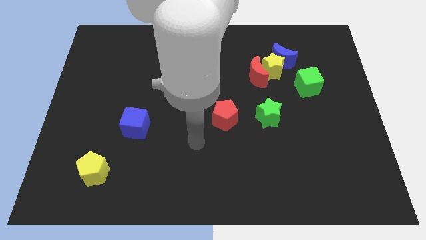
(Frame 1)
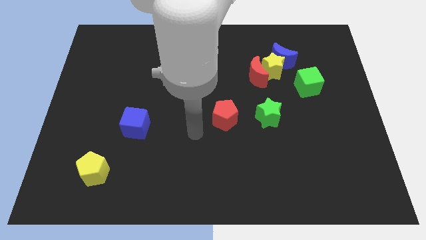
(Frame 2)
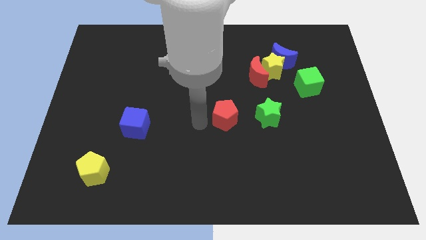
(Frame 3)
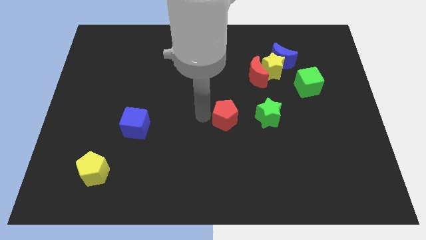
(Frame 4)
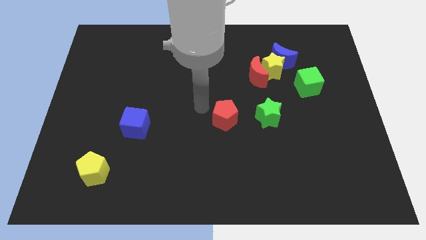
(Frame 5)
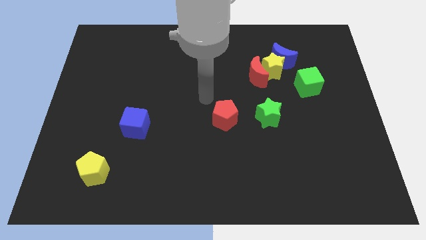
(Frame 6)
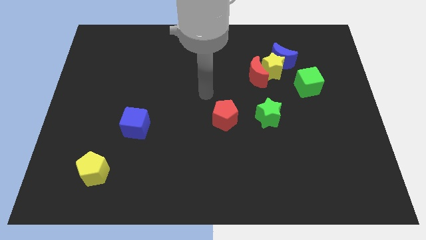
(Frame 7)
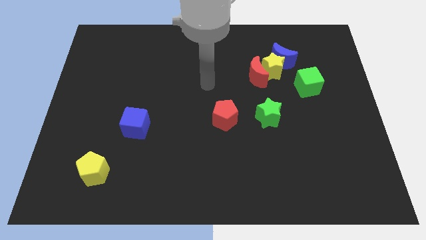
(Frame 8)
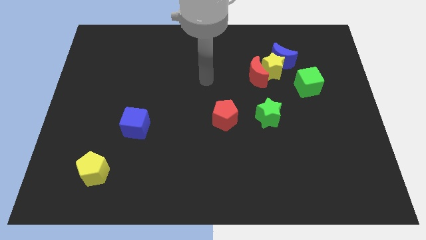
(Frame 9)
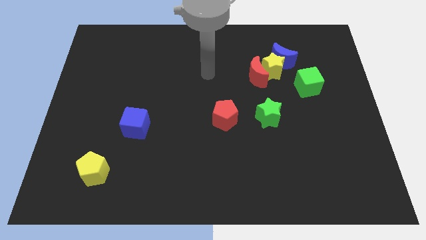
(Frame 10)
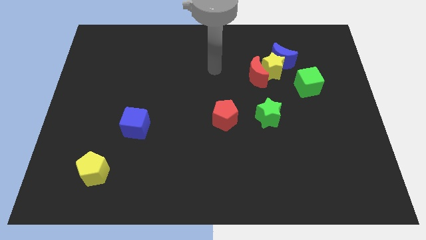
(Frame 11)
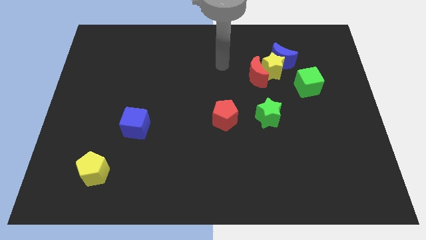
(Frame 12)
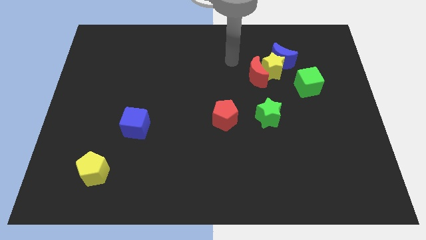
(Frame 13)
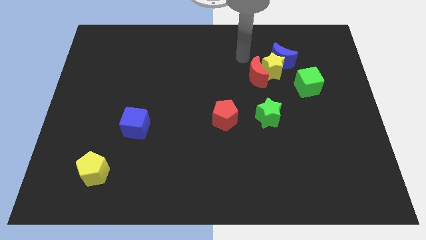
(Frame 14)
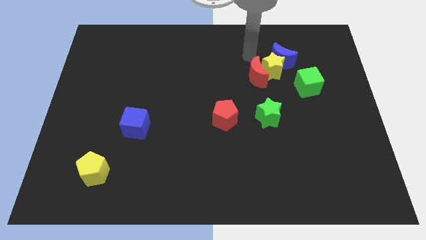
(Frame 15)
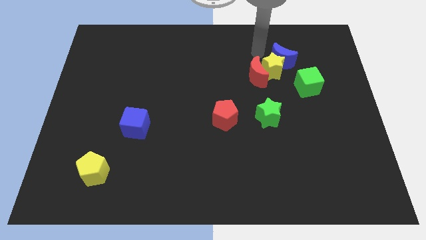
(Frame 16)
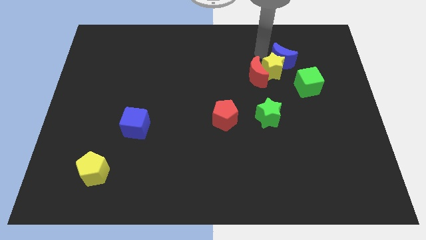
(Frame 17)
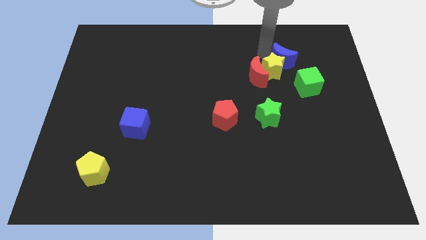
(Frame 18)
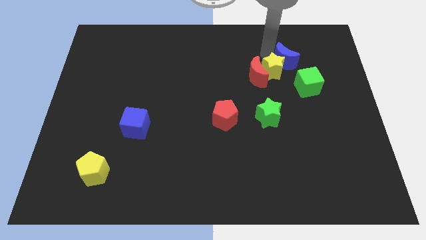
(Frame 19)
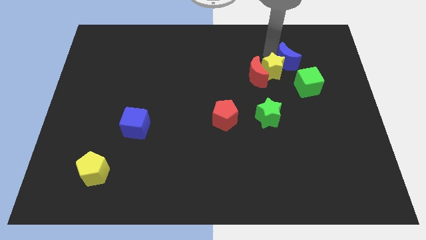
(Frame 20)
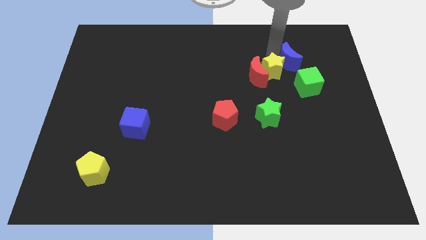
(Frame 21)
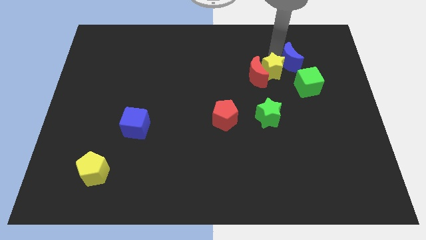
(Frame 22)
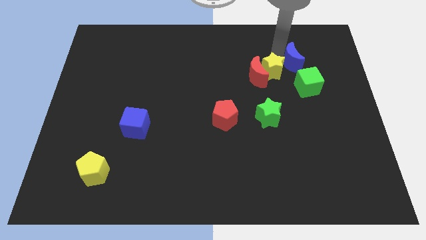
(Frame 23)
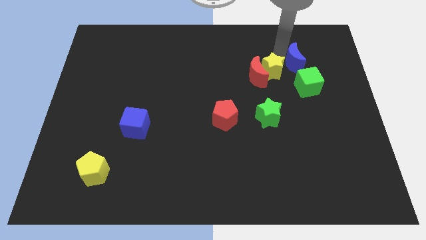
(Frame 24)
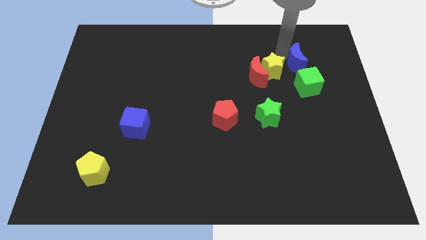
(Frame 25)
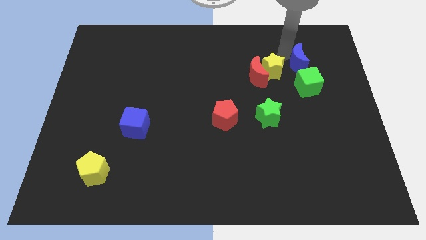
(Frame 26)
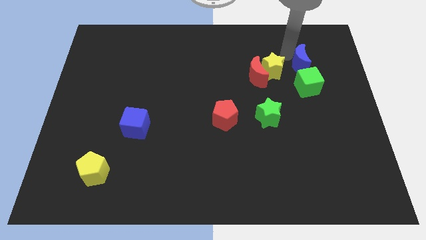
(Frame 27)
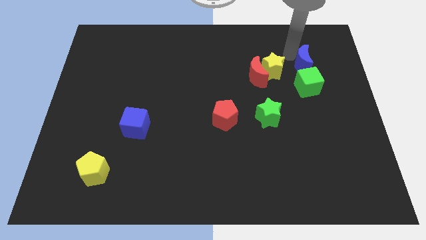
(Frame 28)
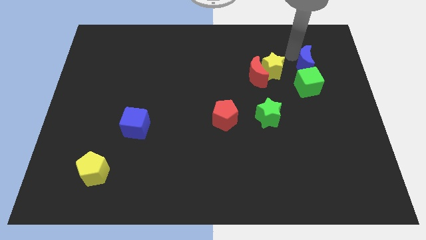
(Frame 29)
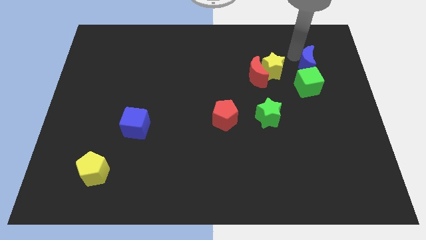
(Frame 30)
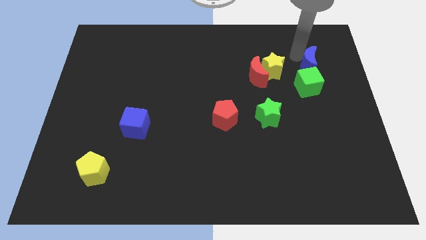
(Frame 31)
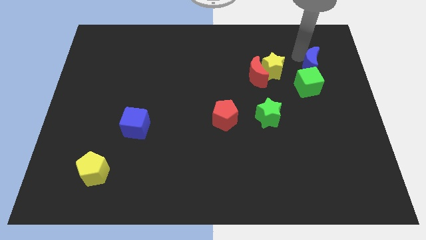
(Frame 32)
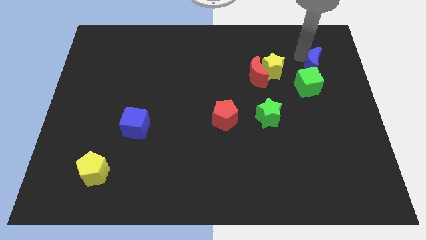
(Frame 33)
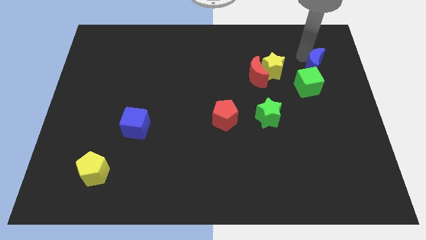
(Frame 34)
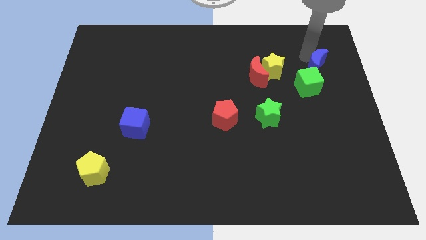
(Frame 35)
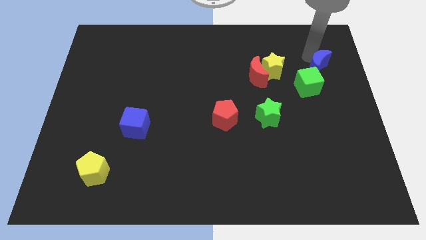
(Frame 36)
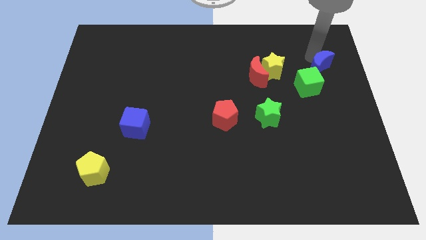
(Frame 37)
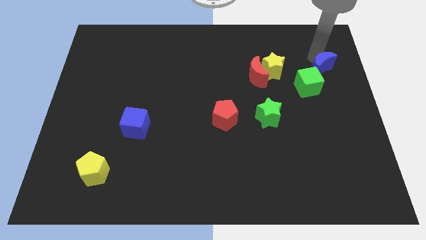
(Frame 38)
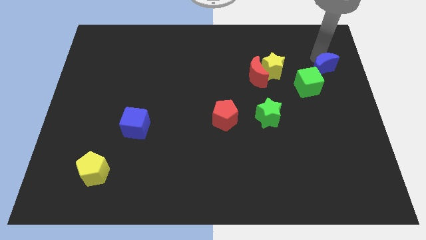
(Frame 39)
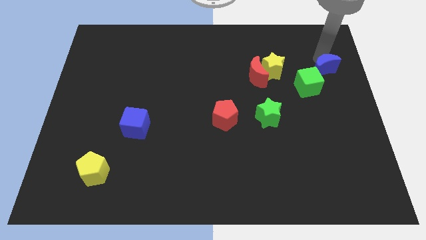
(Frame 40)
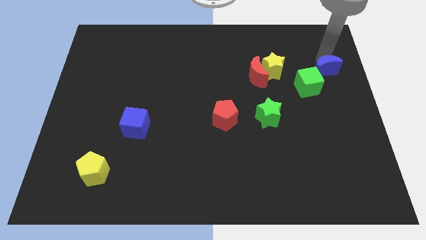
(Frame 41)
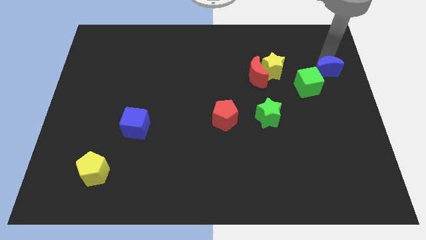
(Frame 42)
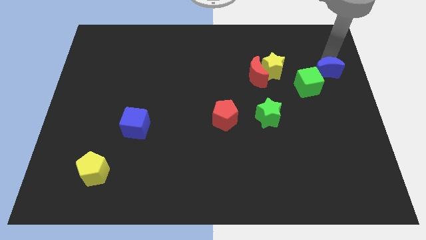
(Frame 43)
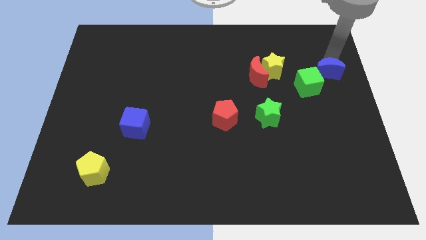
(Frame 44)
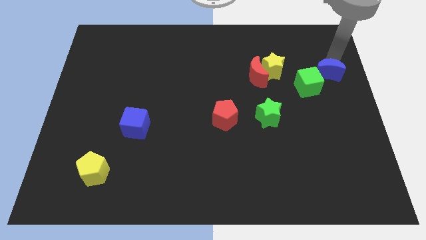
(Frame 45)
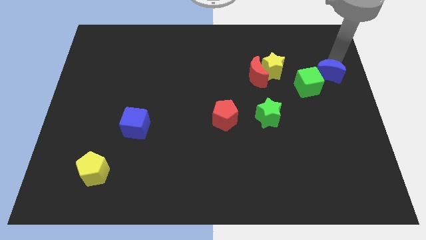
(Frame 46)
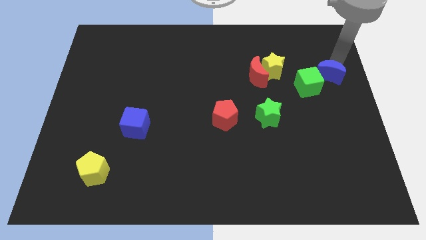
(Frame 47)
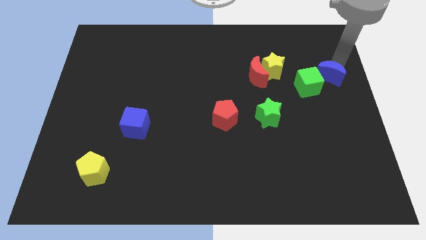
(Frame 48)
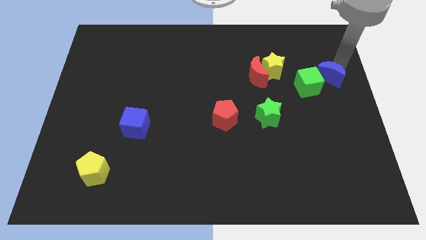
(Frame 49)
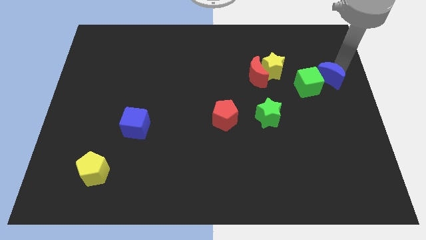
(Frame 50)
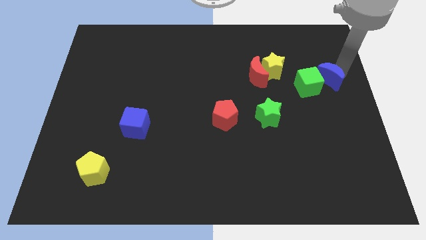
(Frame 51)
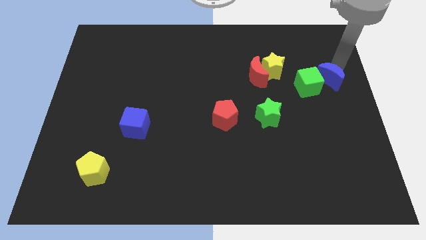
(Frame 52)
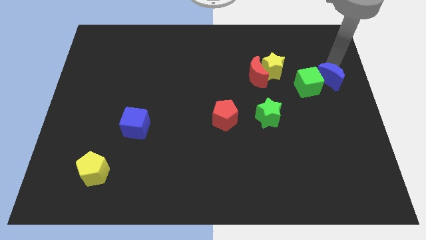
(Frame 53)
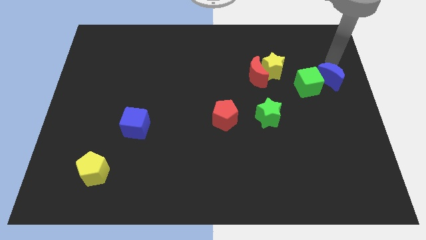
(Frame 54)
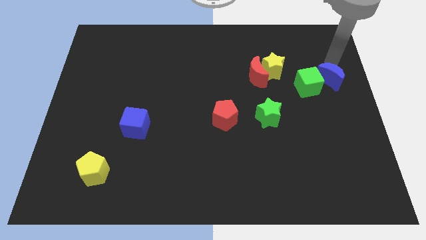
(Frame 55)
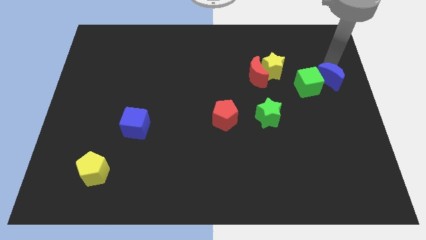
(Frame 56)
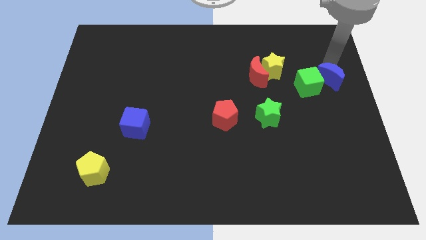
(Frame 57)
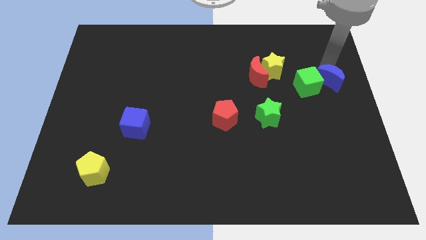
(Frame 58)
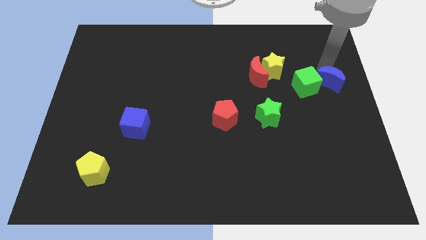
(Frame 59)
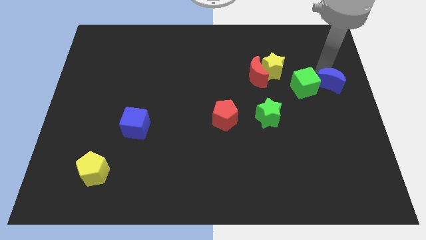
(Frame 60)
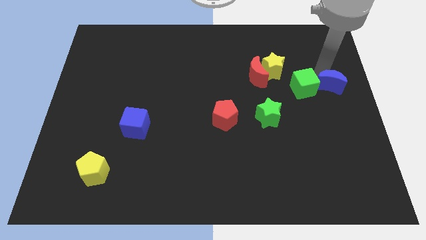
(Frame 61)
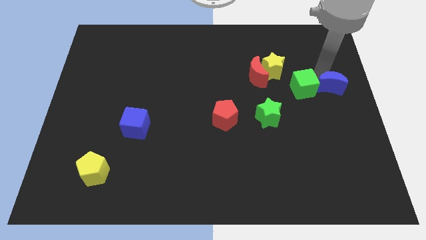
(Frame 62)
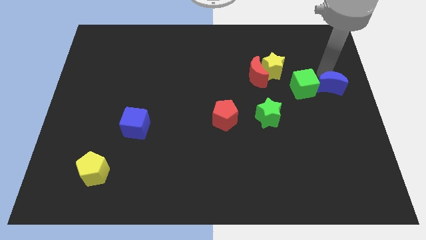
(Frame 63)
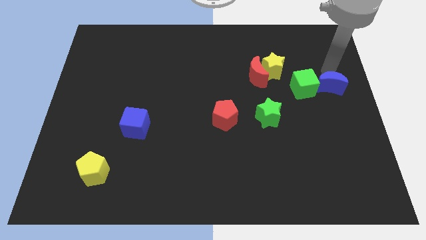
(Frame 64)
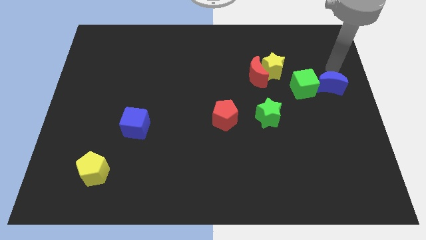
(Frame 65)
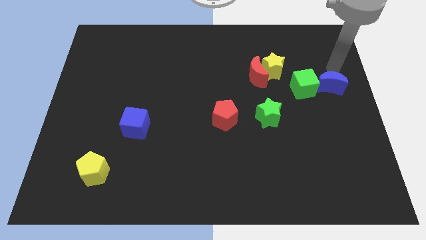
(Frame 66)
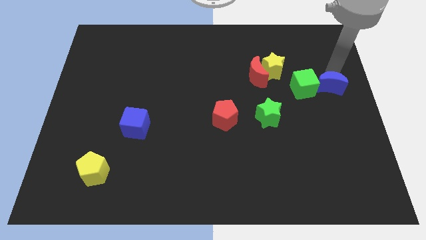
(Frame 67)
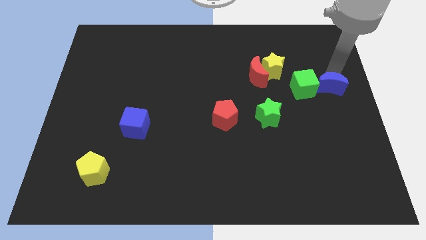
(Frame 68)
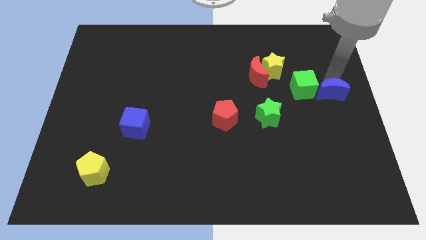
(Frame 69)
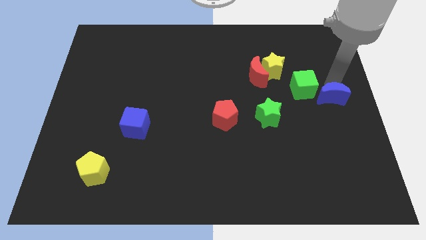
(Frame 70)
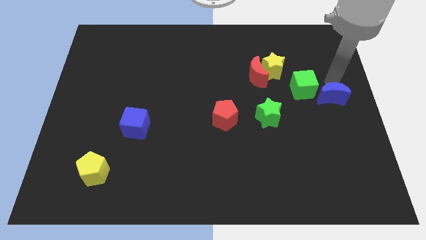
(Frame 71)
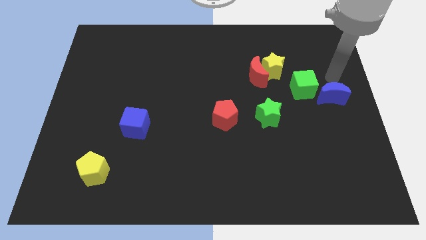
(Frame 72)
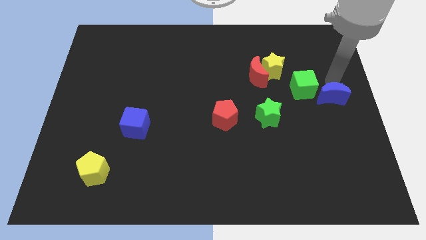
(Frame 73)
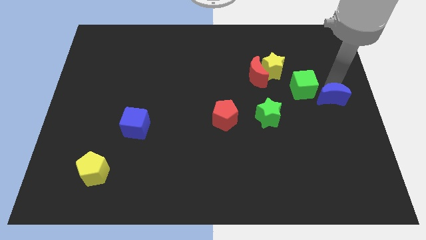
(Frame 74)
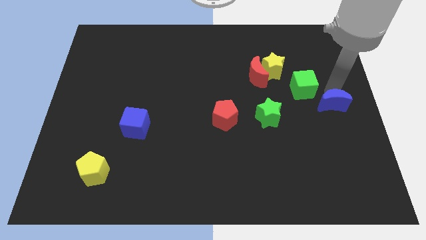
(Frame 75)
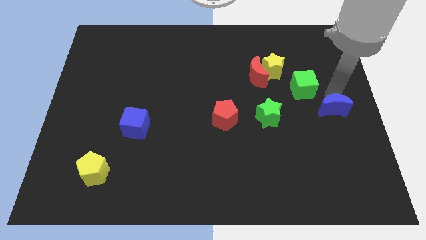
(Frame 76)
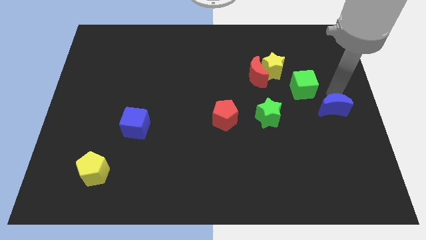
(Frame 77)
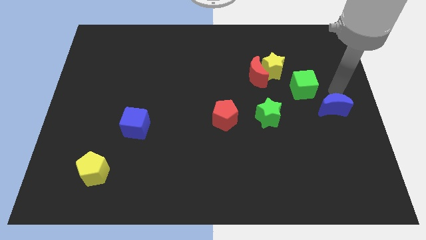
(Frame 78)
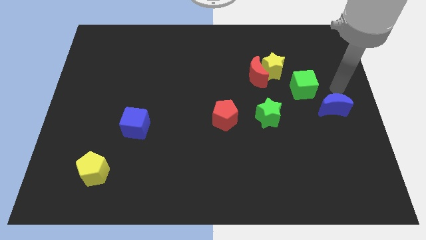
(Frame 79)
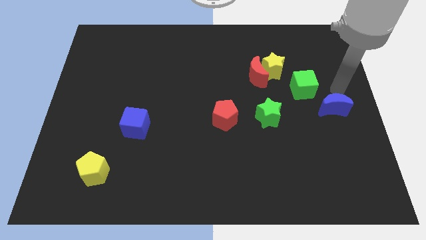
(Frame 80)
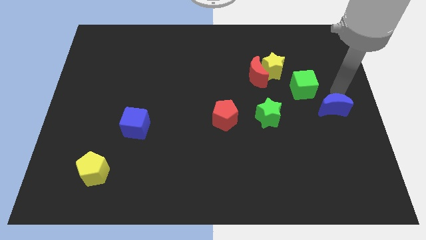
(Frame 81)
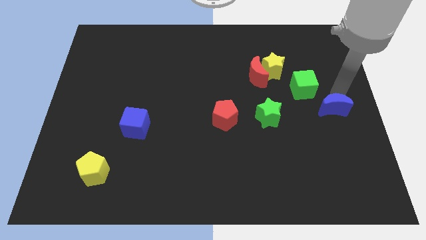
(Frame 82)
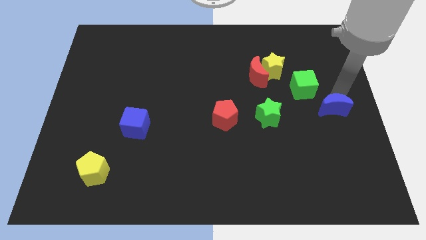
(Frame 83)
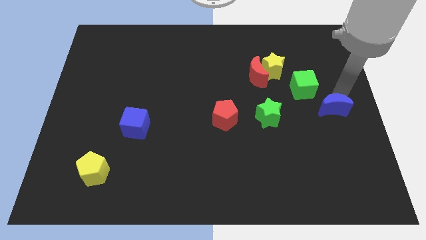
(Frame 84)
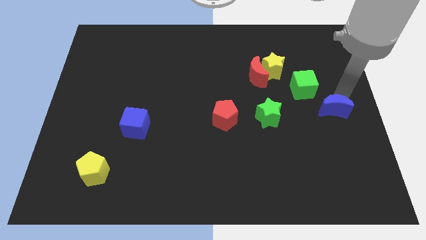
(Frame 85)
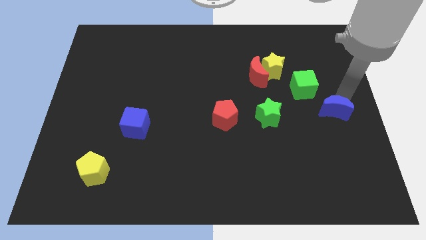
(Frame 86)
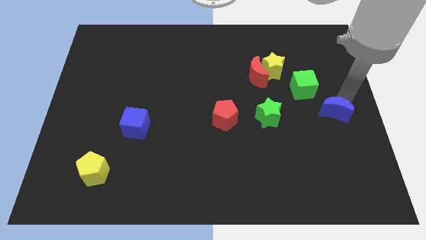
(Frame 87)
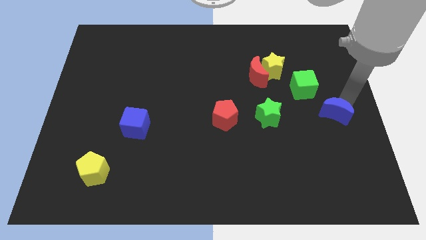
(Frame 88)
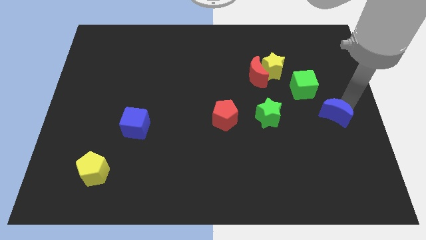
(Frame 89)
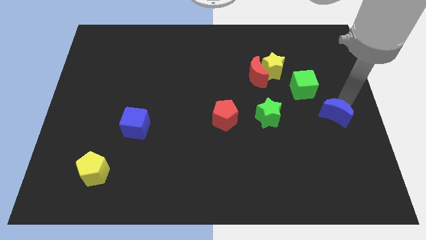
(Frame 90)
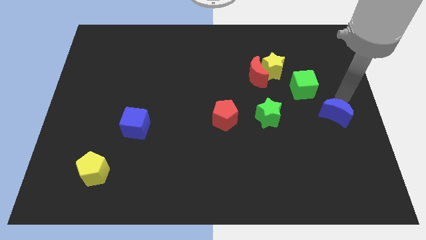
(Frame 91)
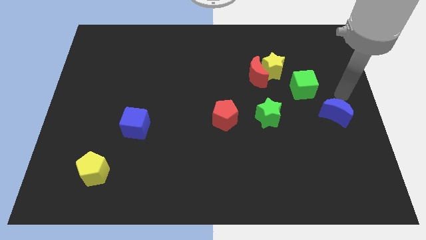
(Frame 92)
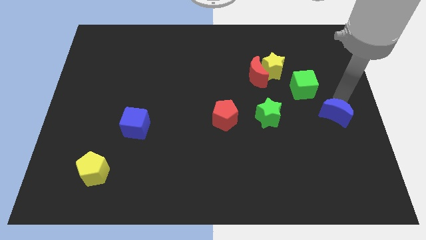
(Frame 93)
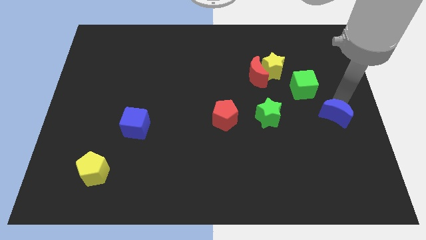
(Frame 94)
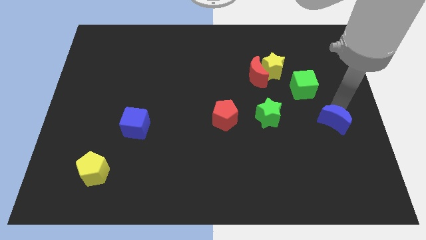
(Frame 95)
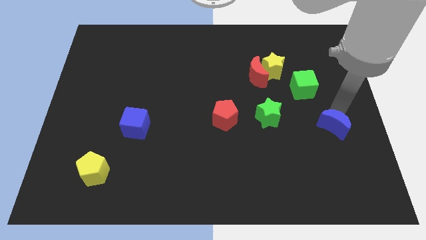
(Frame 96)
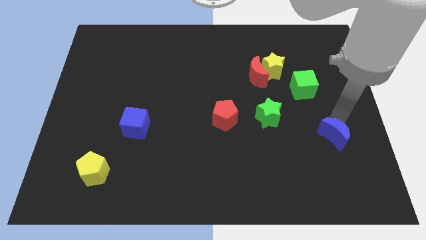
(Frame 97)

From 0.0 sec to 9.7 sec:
push the blue moon downwards
